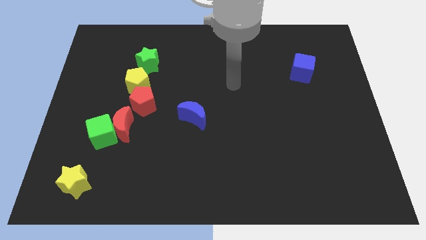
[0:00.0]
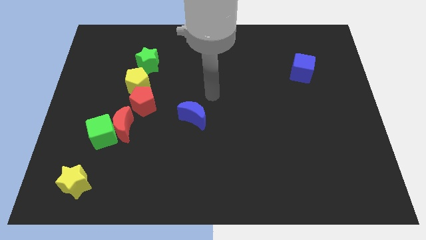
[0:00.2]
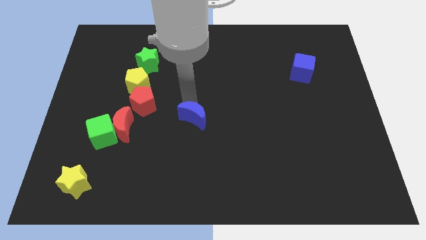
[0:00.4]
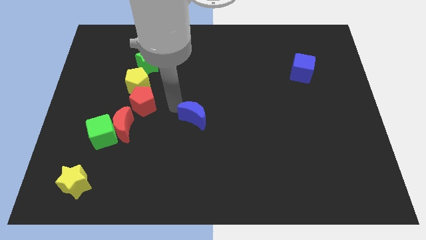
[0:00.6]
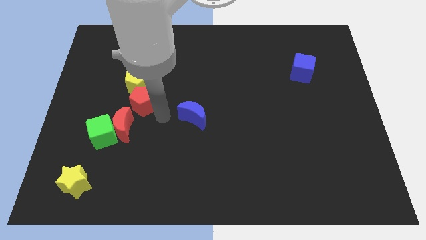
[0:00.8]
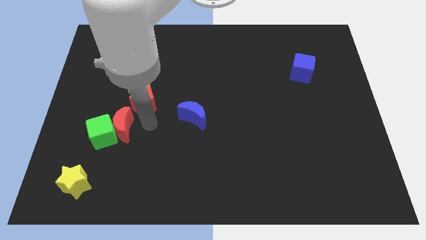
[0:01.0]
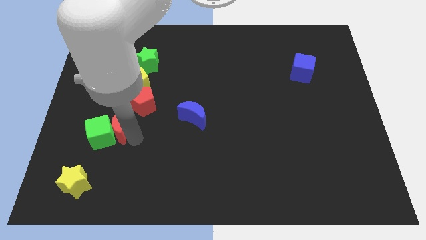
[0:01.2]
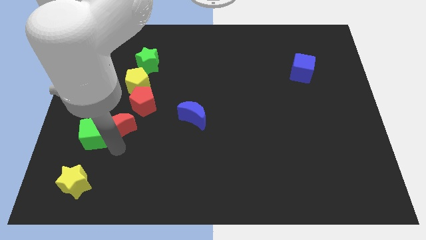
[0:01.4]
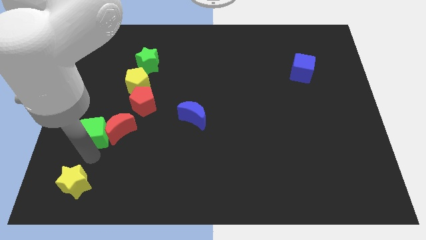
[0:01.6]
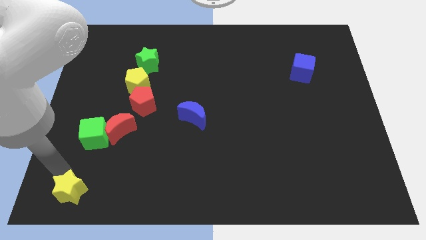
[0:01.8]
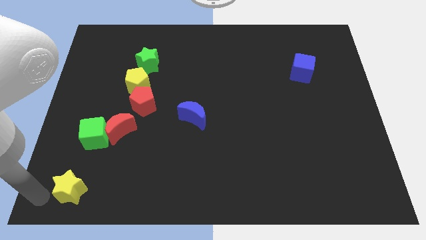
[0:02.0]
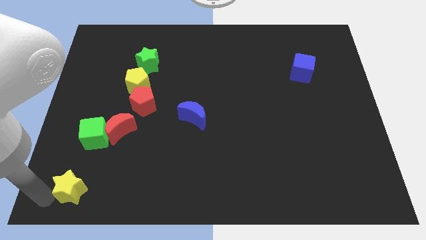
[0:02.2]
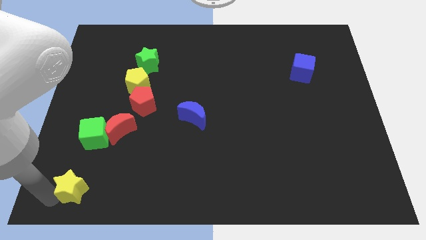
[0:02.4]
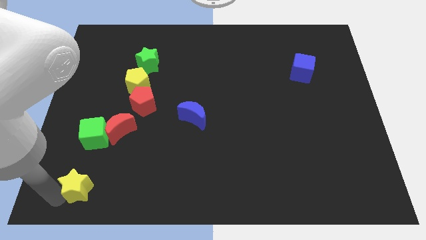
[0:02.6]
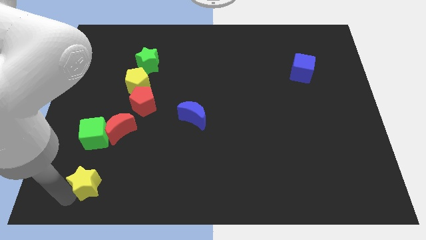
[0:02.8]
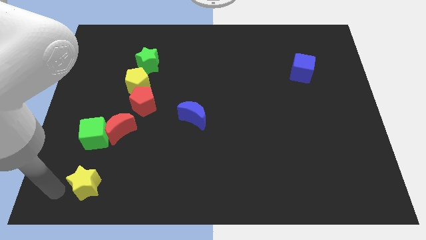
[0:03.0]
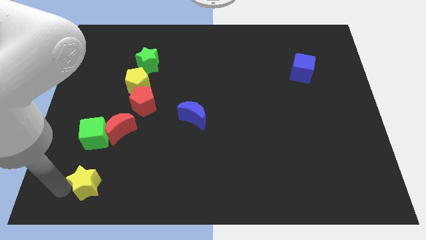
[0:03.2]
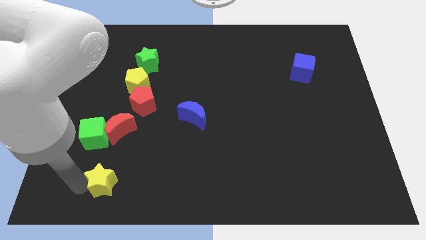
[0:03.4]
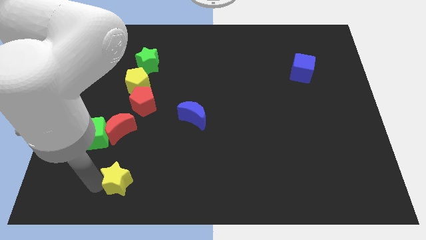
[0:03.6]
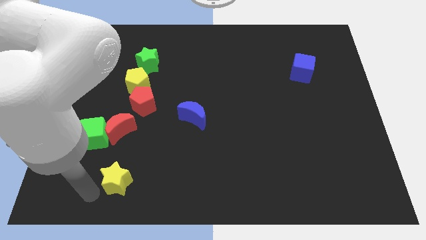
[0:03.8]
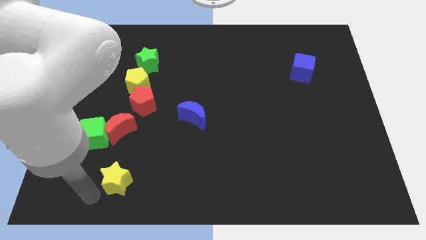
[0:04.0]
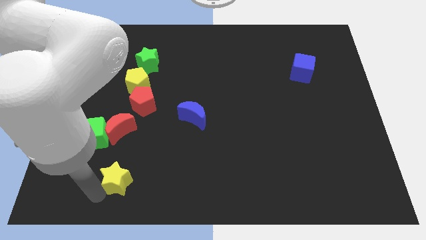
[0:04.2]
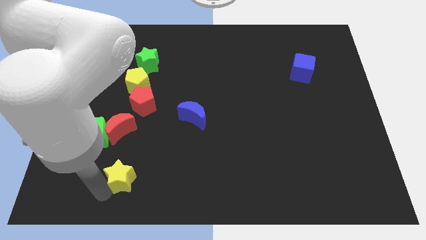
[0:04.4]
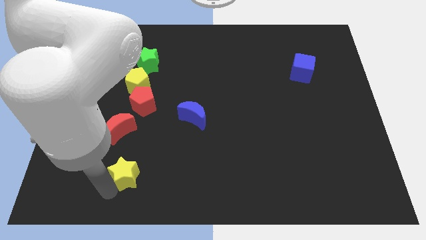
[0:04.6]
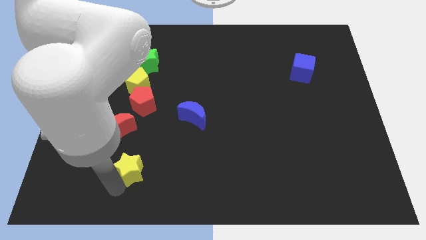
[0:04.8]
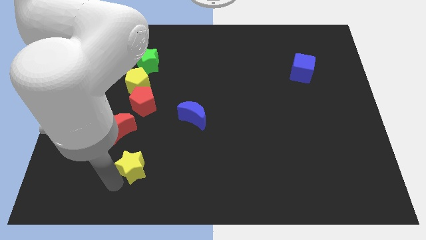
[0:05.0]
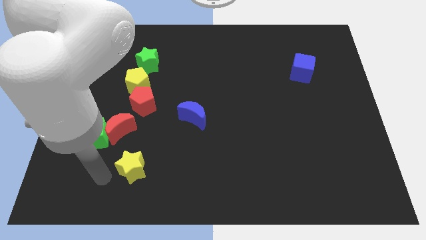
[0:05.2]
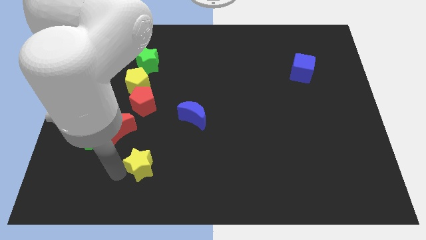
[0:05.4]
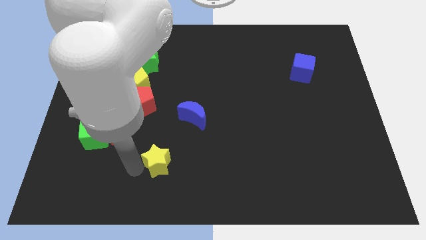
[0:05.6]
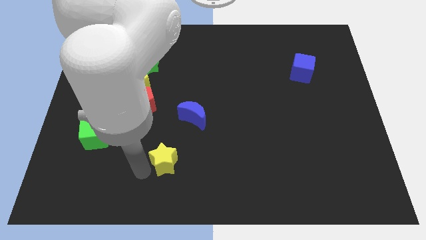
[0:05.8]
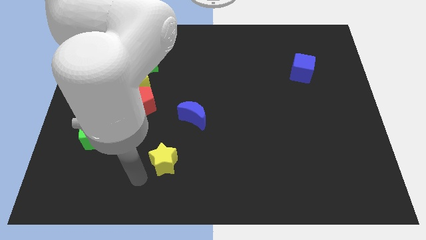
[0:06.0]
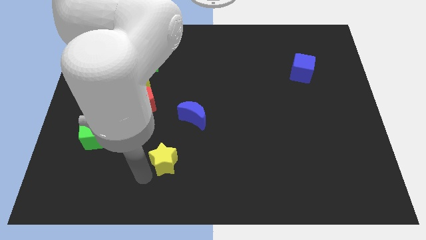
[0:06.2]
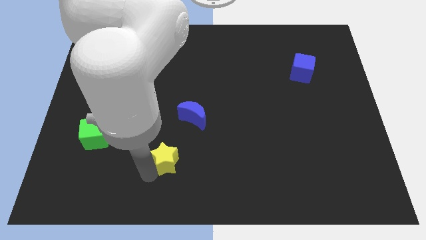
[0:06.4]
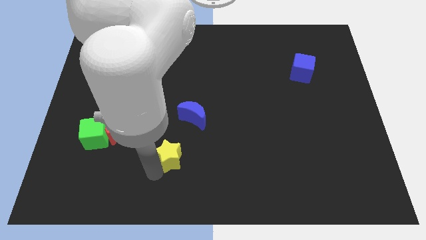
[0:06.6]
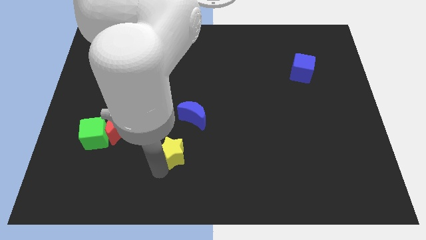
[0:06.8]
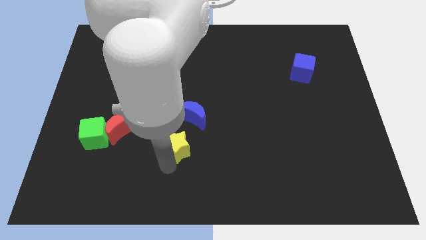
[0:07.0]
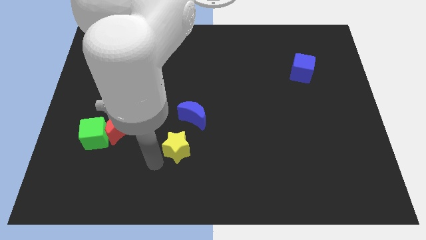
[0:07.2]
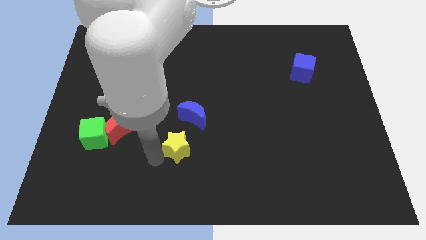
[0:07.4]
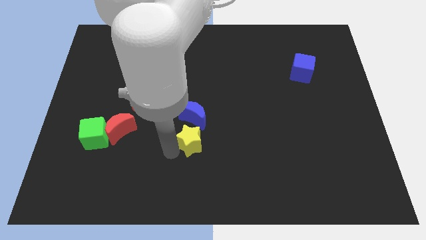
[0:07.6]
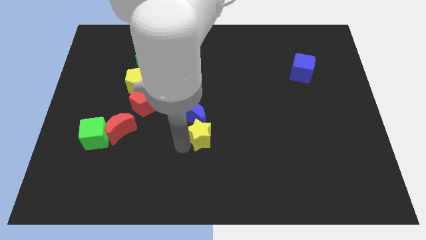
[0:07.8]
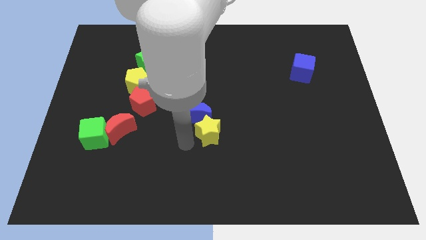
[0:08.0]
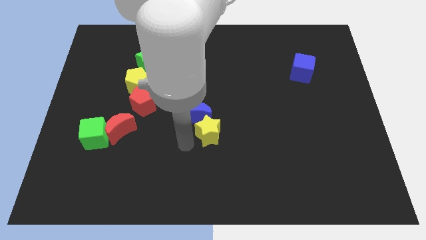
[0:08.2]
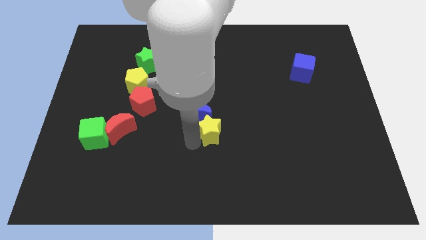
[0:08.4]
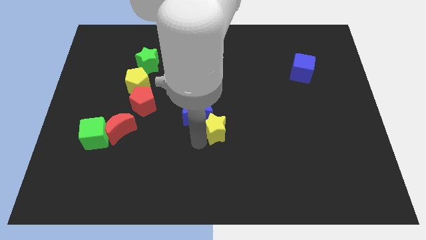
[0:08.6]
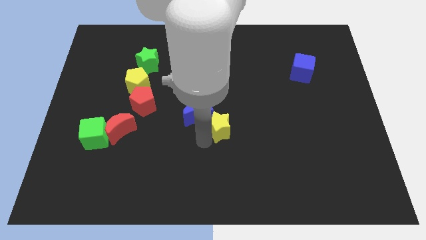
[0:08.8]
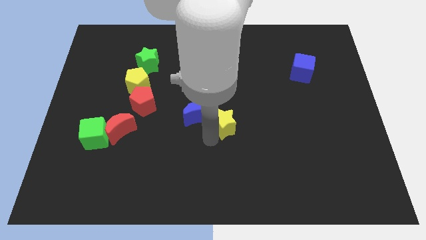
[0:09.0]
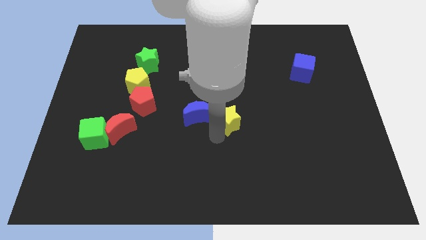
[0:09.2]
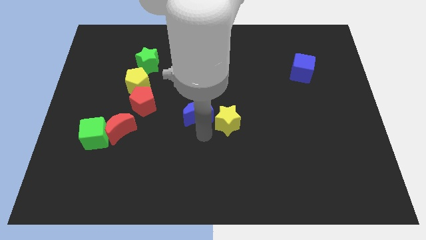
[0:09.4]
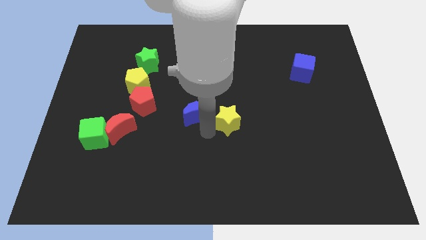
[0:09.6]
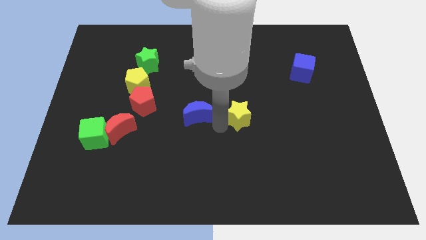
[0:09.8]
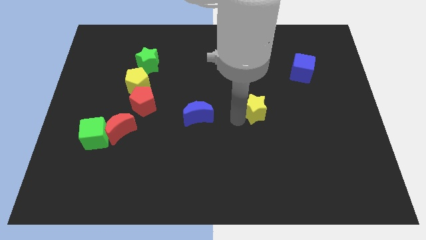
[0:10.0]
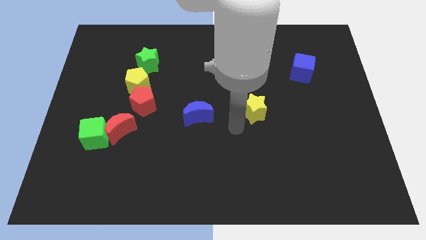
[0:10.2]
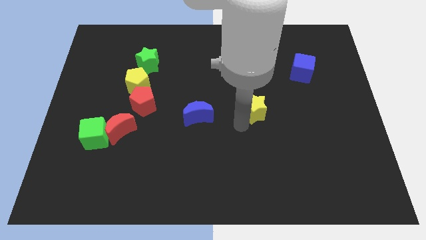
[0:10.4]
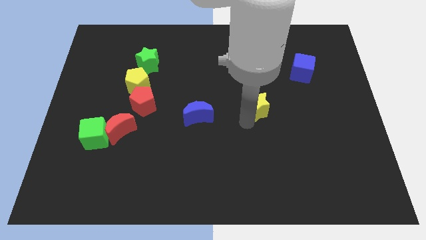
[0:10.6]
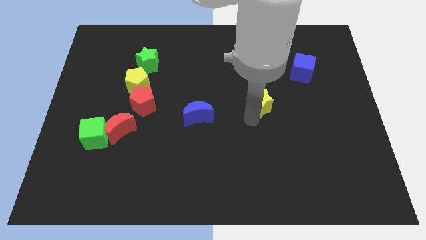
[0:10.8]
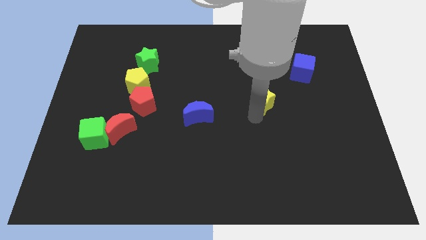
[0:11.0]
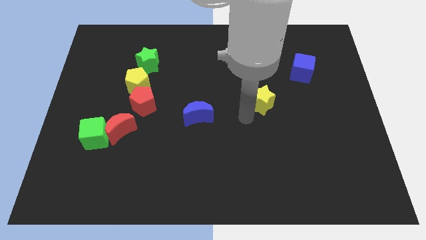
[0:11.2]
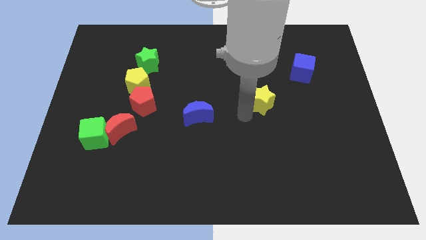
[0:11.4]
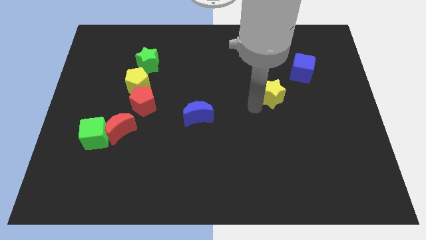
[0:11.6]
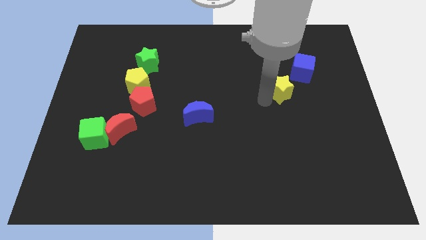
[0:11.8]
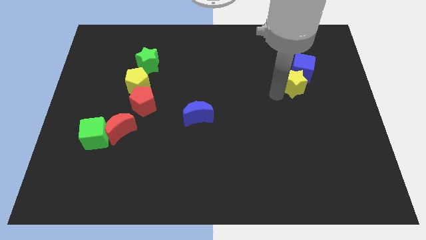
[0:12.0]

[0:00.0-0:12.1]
push the yellow star towards the blue cube

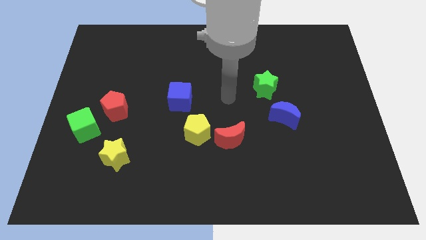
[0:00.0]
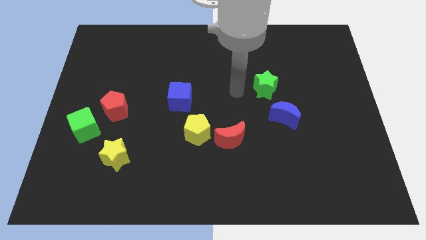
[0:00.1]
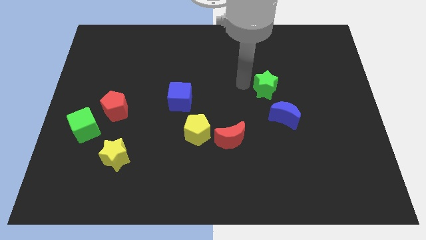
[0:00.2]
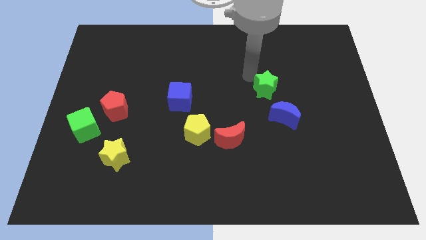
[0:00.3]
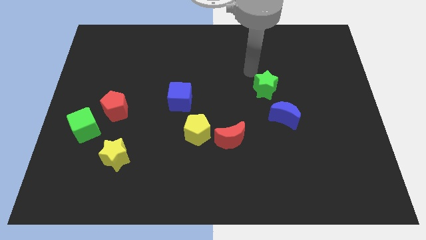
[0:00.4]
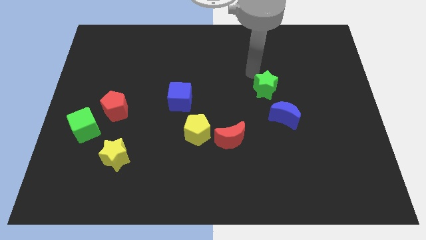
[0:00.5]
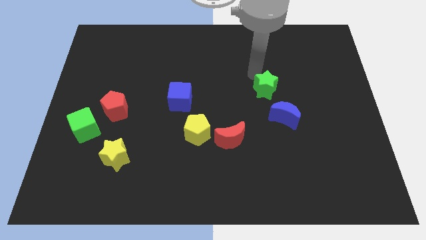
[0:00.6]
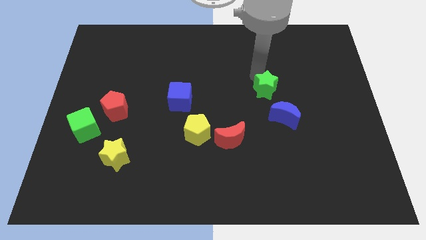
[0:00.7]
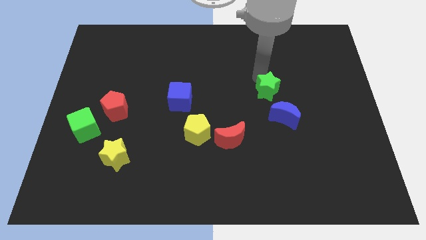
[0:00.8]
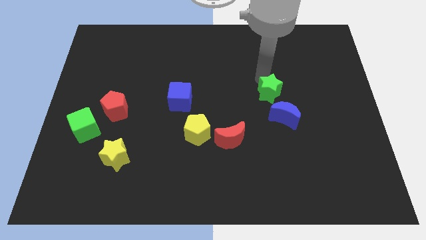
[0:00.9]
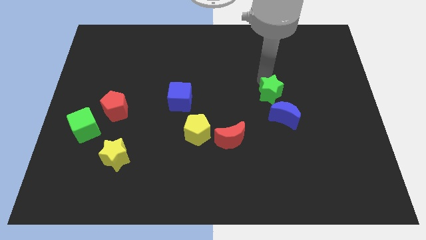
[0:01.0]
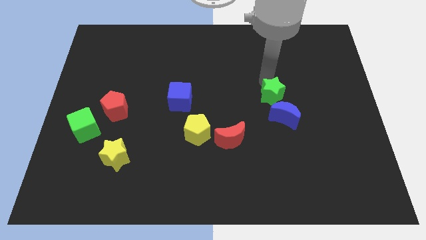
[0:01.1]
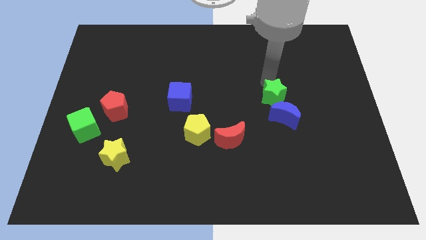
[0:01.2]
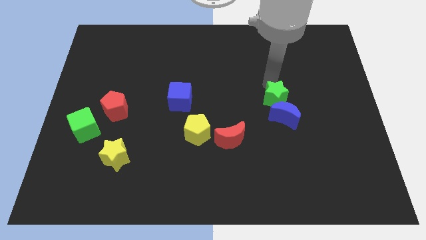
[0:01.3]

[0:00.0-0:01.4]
push the green star next to the blue moon

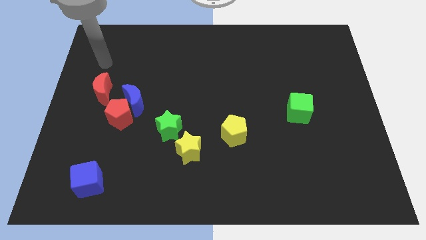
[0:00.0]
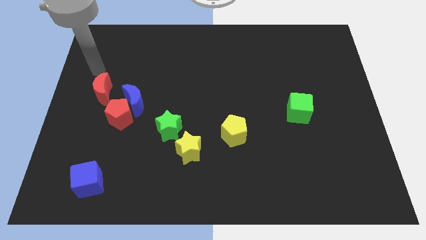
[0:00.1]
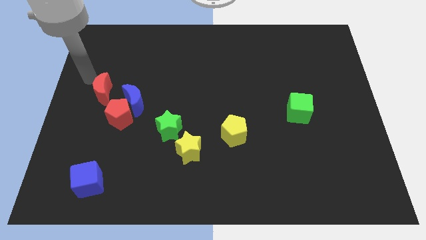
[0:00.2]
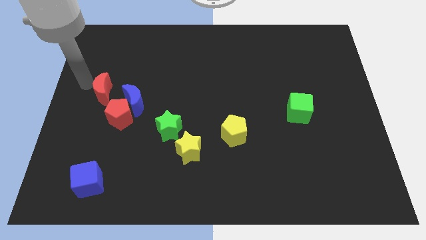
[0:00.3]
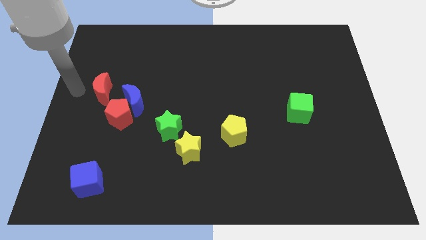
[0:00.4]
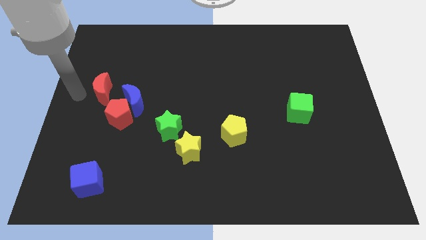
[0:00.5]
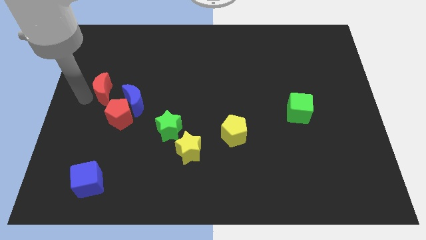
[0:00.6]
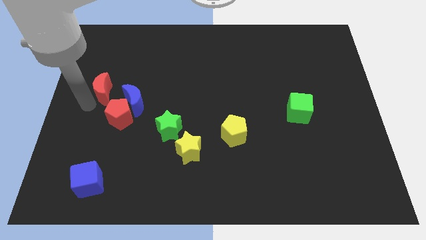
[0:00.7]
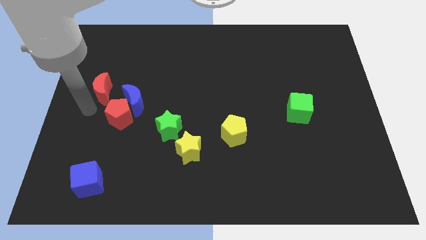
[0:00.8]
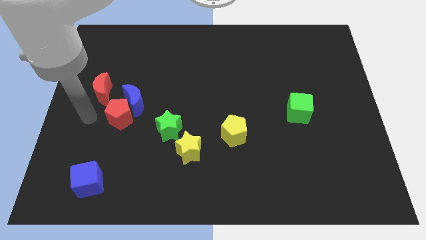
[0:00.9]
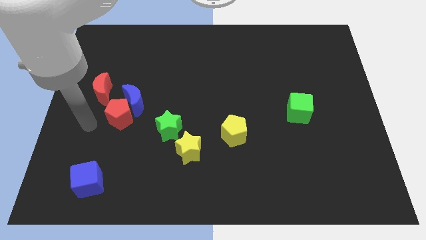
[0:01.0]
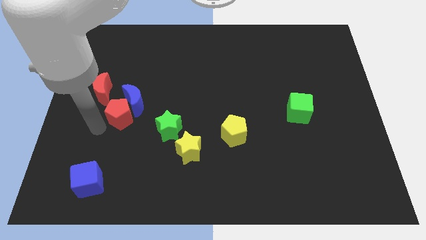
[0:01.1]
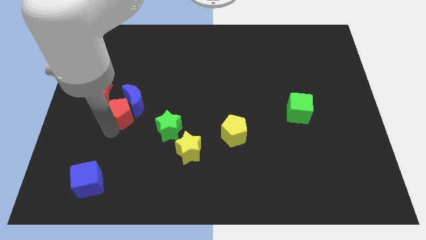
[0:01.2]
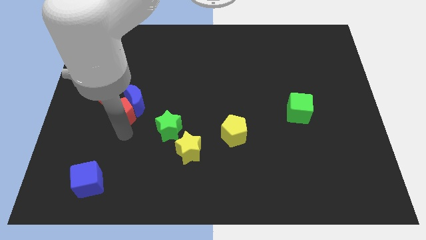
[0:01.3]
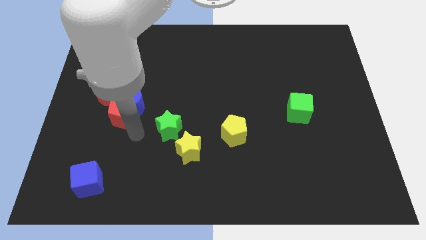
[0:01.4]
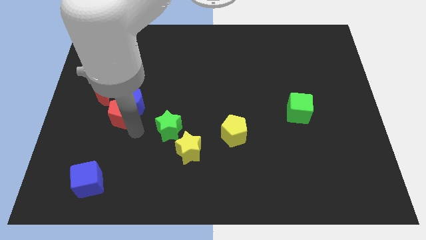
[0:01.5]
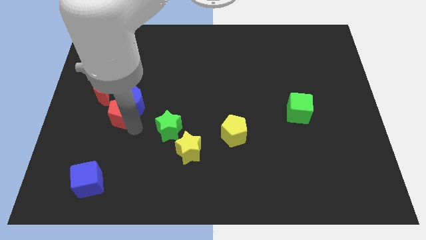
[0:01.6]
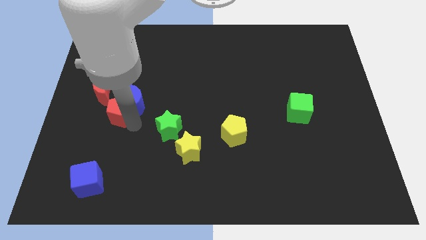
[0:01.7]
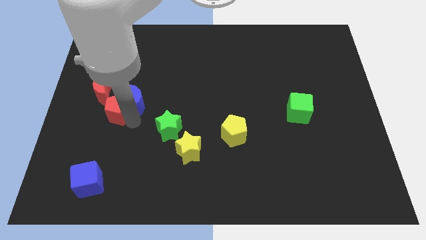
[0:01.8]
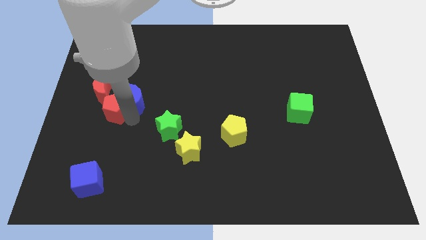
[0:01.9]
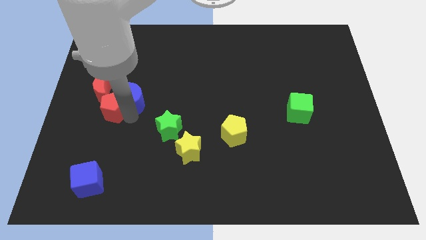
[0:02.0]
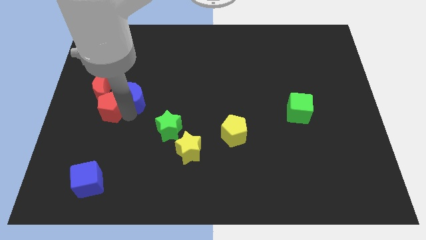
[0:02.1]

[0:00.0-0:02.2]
move the red pentagon towards the red moon
